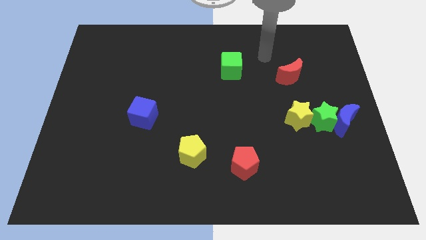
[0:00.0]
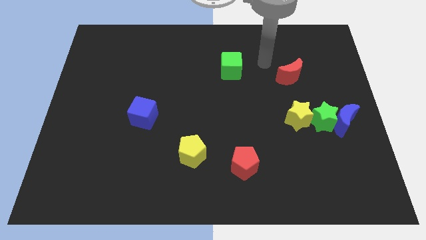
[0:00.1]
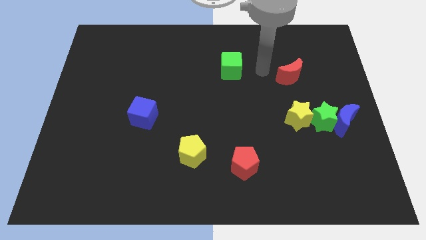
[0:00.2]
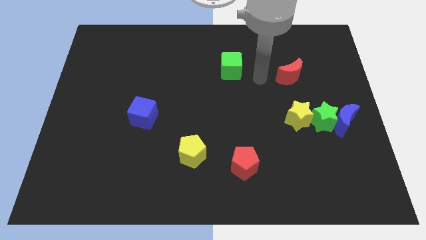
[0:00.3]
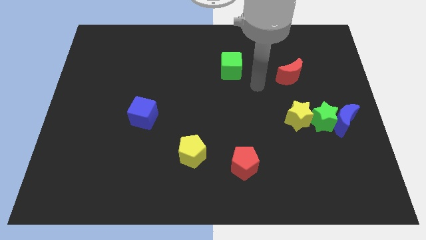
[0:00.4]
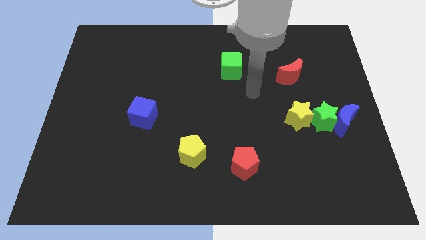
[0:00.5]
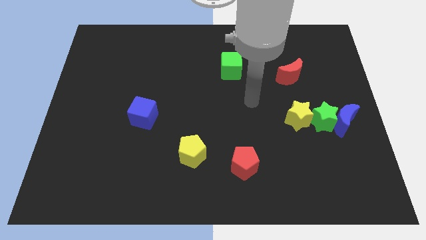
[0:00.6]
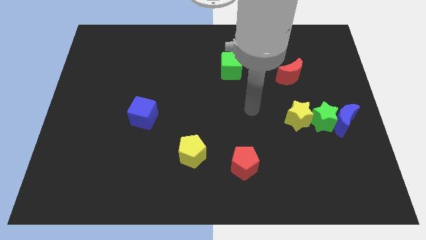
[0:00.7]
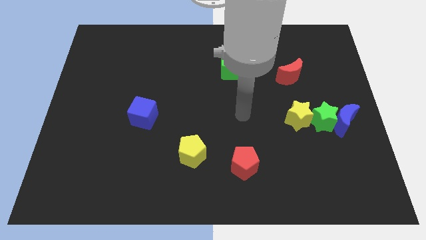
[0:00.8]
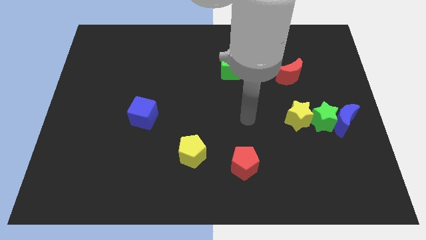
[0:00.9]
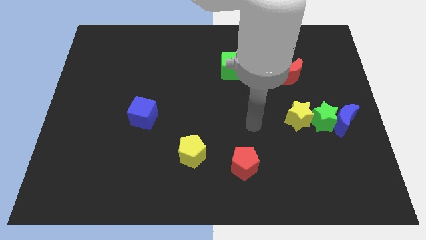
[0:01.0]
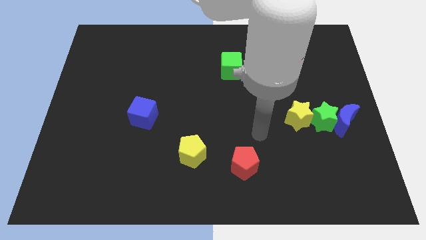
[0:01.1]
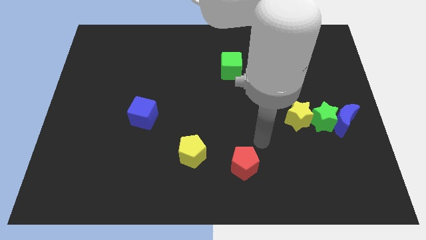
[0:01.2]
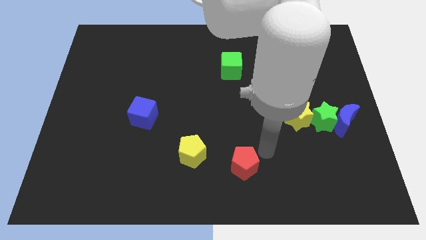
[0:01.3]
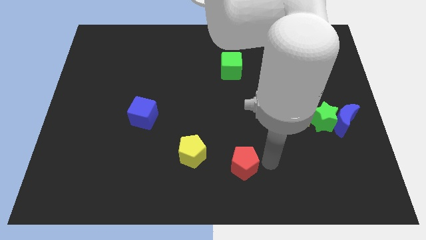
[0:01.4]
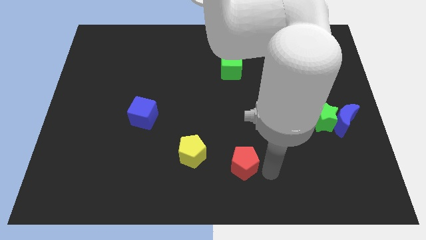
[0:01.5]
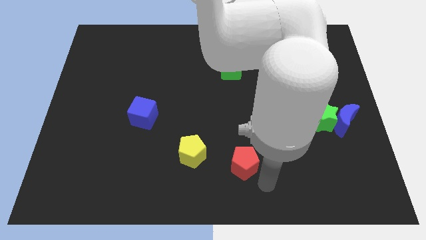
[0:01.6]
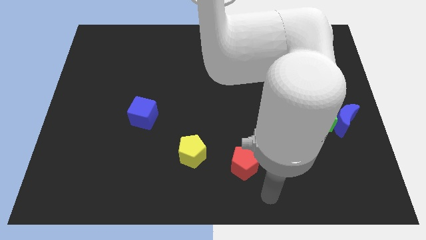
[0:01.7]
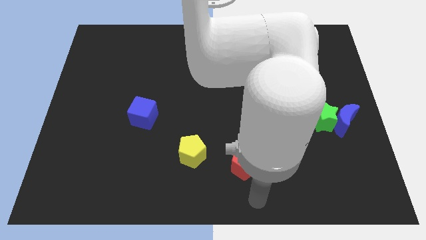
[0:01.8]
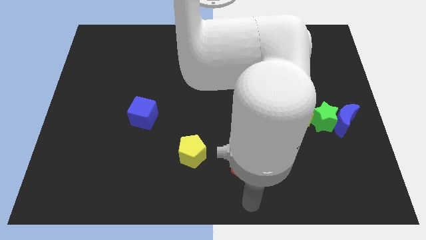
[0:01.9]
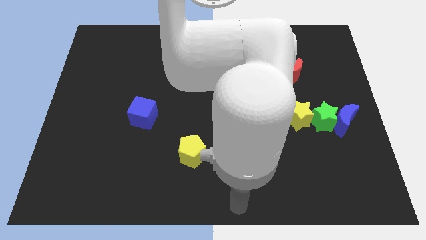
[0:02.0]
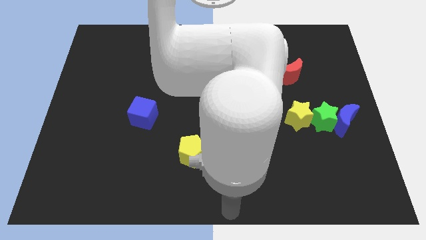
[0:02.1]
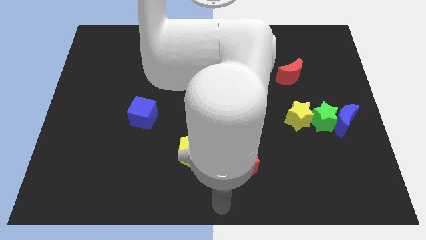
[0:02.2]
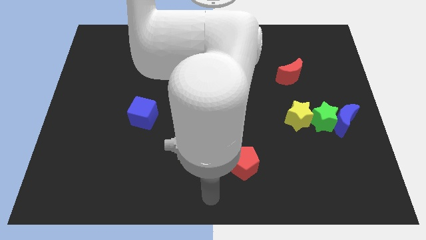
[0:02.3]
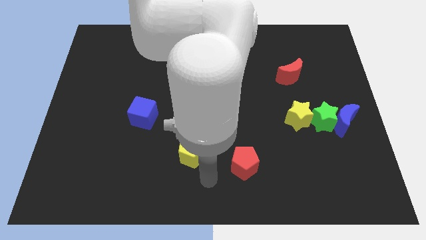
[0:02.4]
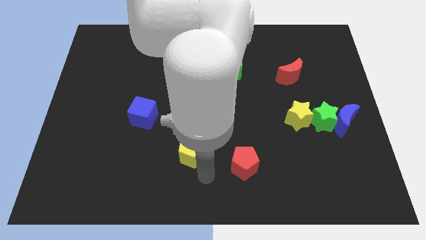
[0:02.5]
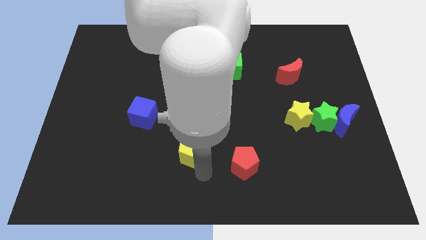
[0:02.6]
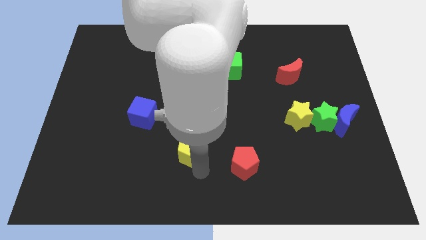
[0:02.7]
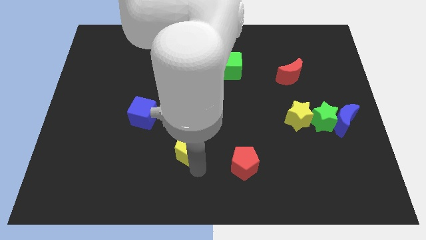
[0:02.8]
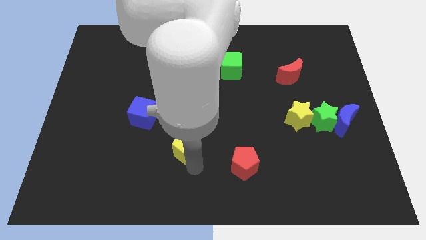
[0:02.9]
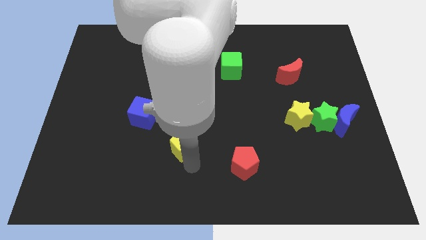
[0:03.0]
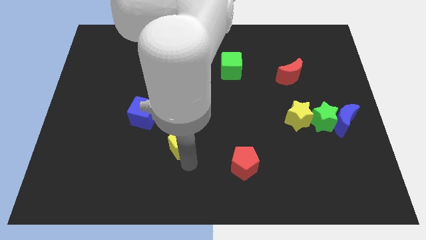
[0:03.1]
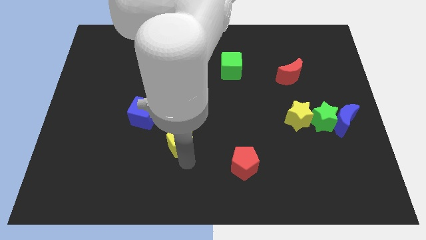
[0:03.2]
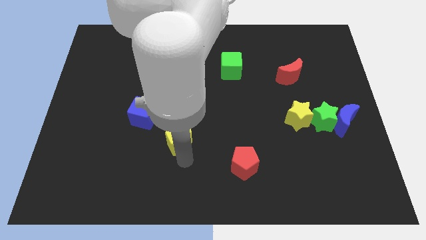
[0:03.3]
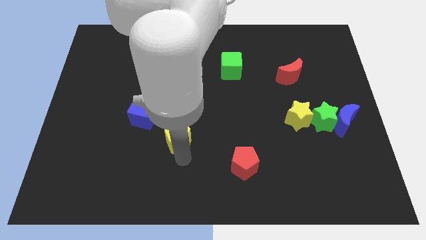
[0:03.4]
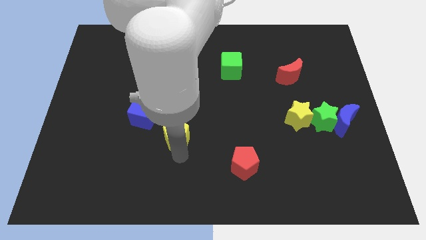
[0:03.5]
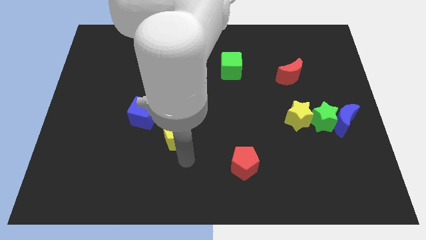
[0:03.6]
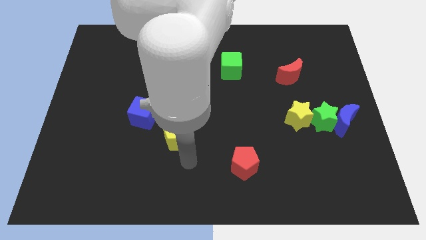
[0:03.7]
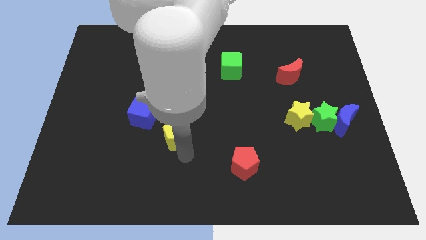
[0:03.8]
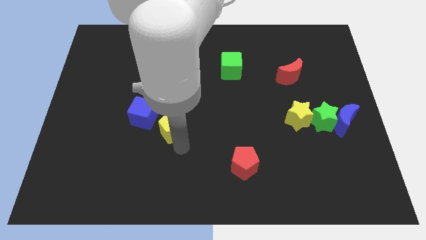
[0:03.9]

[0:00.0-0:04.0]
push the yellow pentagon upwards and then to the left a little

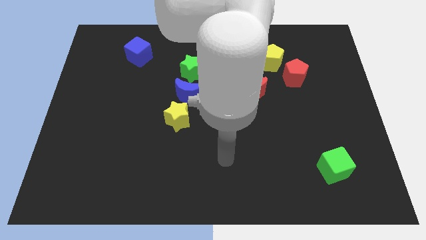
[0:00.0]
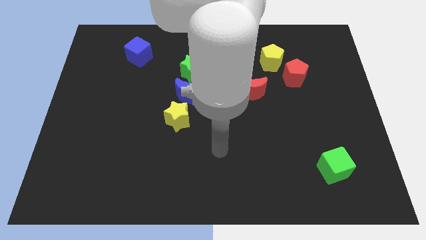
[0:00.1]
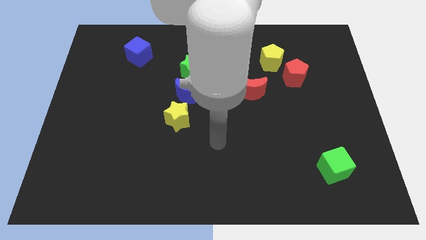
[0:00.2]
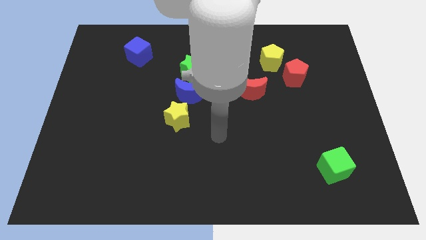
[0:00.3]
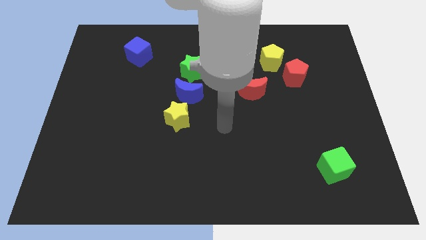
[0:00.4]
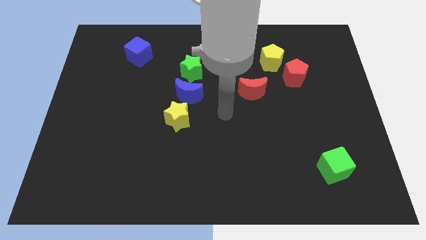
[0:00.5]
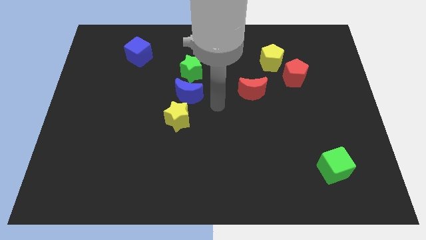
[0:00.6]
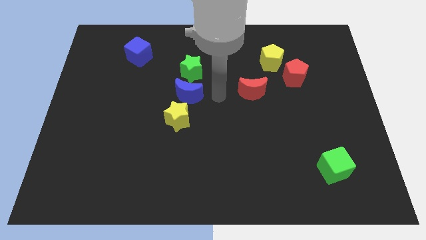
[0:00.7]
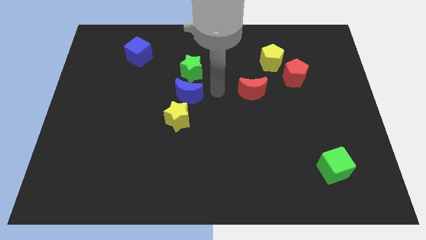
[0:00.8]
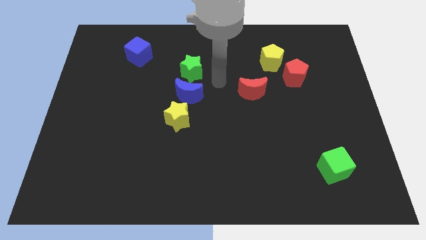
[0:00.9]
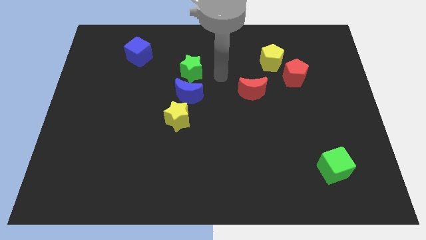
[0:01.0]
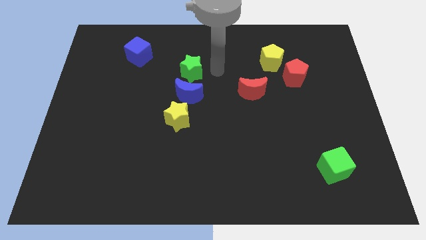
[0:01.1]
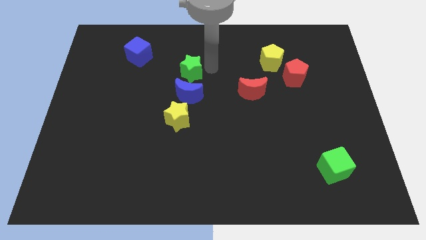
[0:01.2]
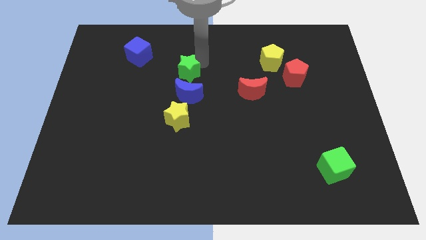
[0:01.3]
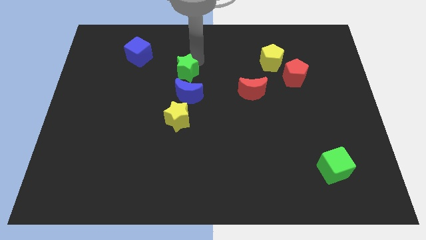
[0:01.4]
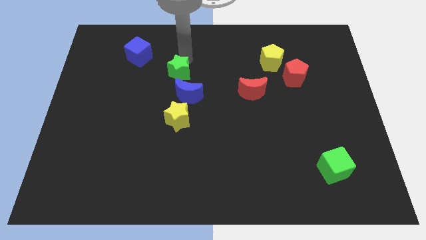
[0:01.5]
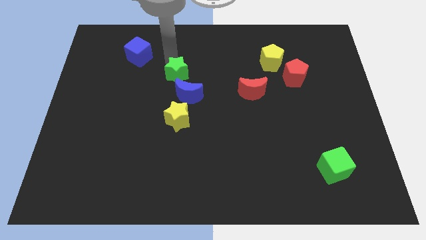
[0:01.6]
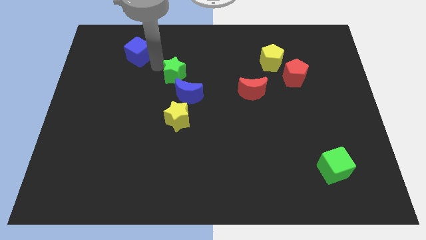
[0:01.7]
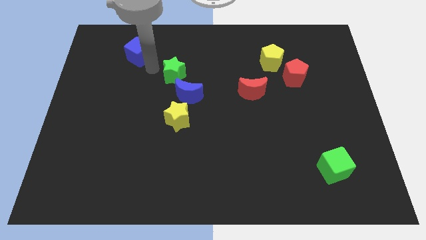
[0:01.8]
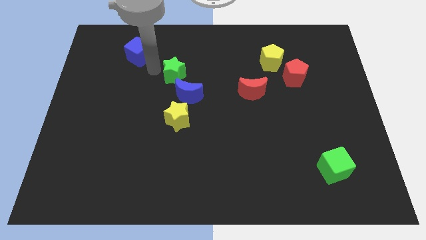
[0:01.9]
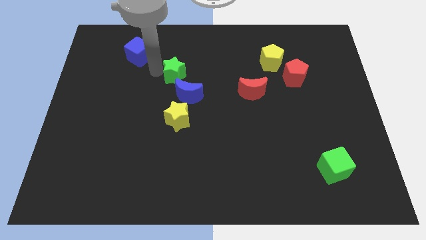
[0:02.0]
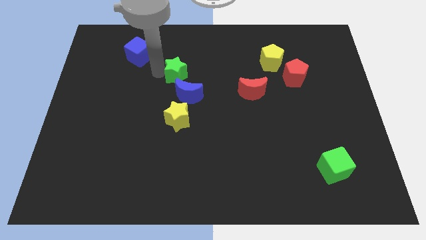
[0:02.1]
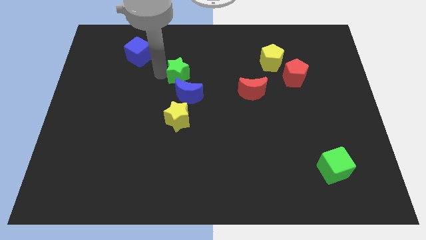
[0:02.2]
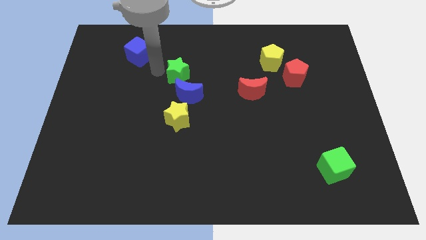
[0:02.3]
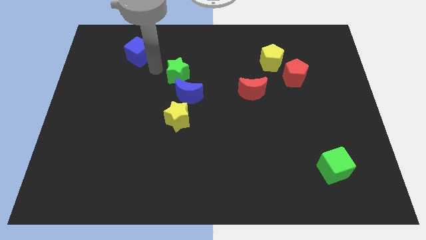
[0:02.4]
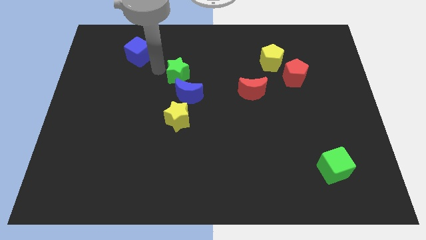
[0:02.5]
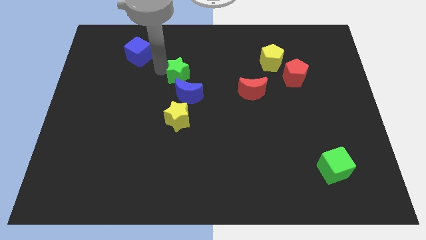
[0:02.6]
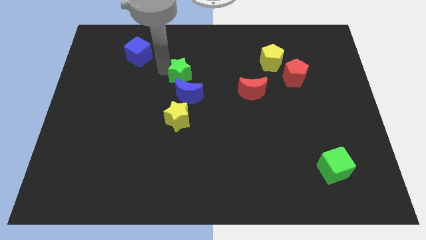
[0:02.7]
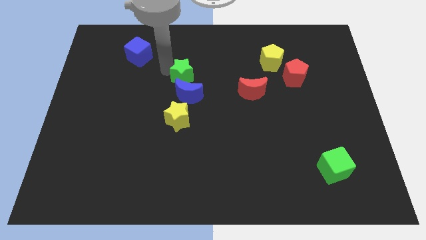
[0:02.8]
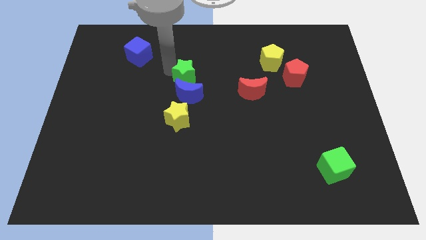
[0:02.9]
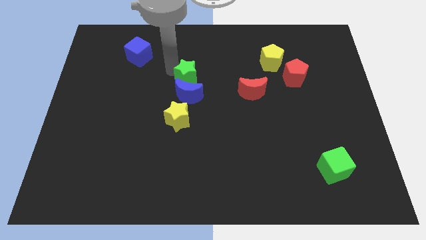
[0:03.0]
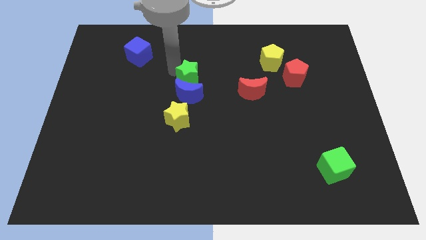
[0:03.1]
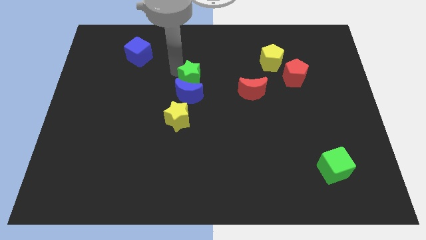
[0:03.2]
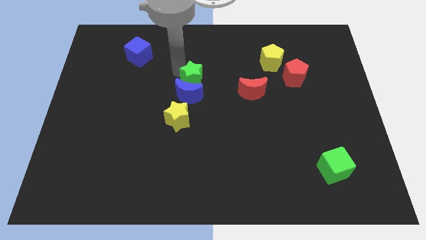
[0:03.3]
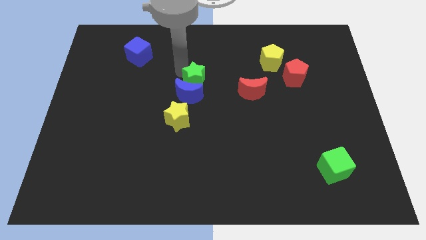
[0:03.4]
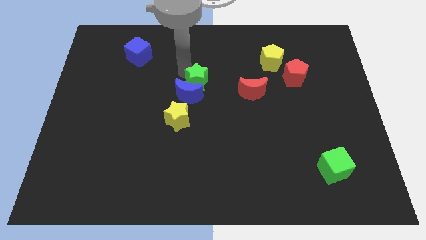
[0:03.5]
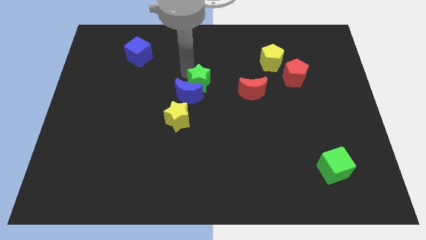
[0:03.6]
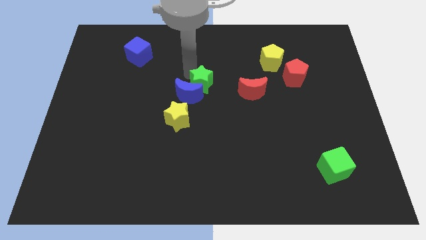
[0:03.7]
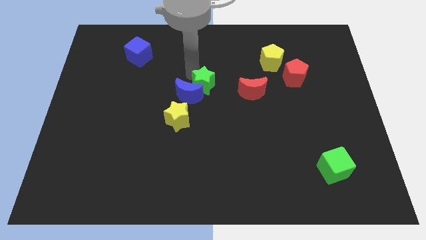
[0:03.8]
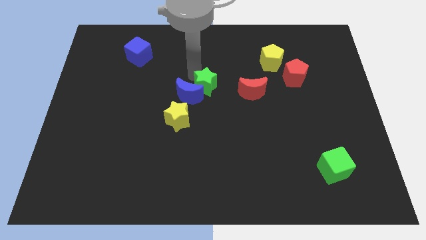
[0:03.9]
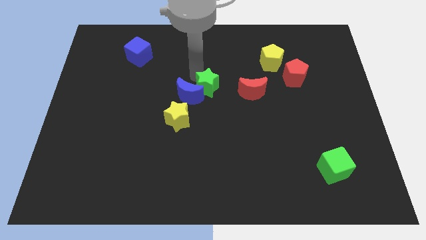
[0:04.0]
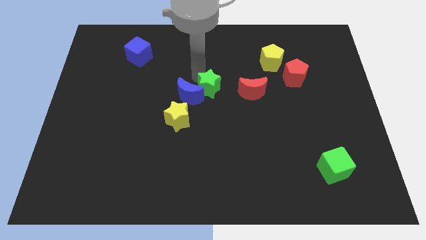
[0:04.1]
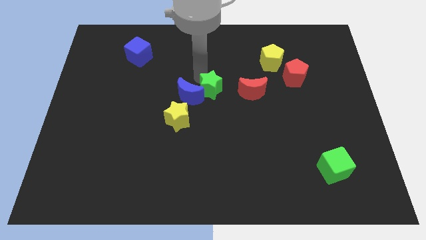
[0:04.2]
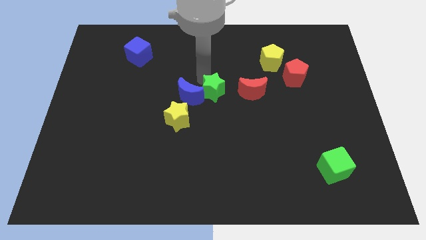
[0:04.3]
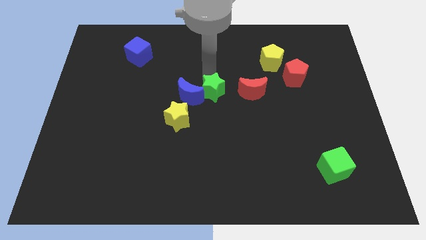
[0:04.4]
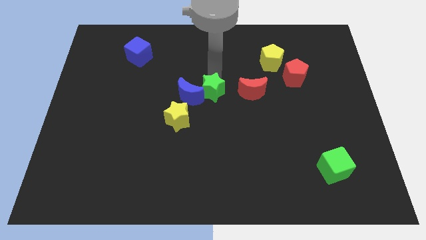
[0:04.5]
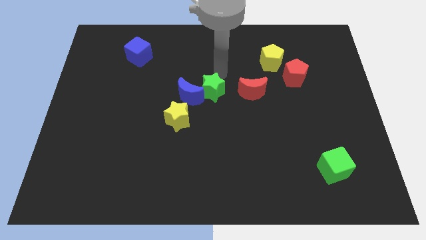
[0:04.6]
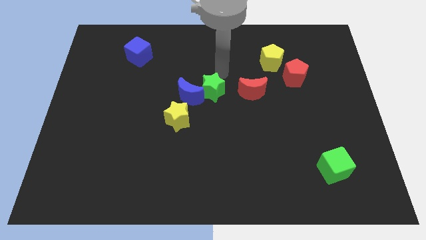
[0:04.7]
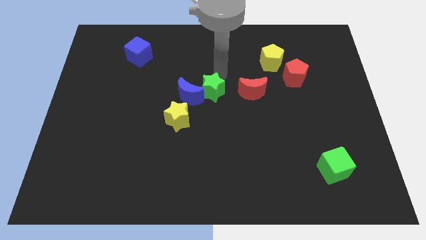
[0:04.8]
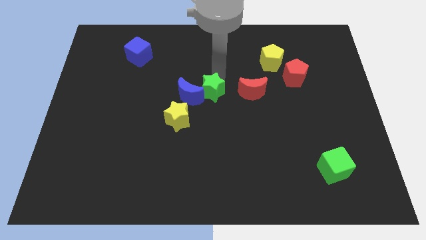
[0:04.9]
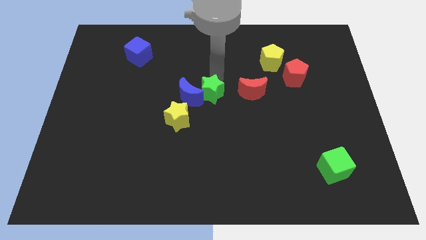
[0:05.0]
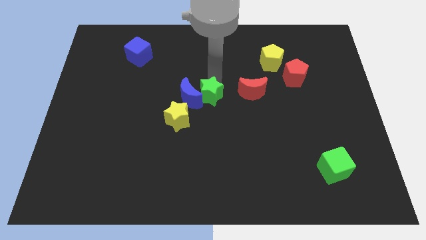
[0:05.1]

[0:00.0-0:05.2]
slightly slide the green star down
